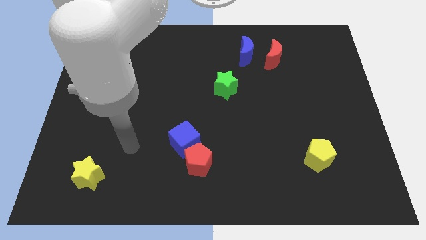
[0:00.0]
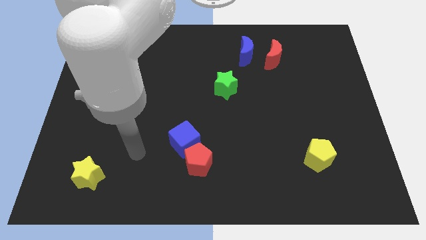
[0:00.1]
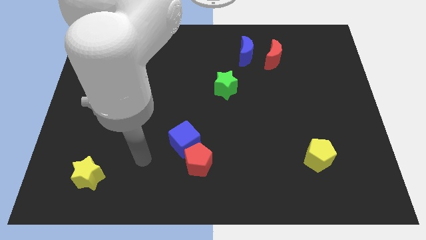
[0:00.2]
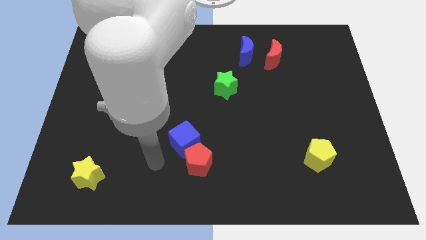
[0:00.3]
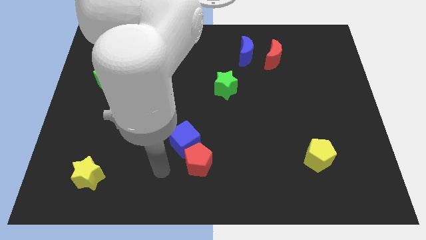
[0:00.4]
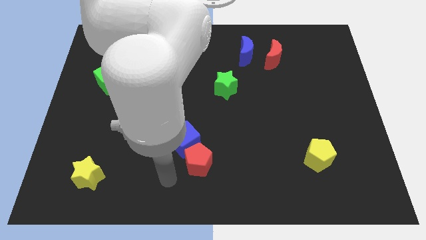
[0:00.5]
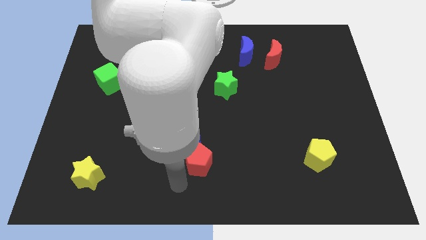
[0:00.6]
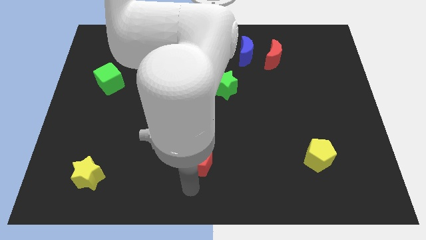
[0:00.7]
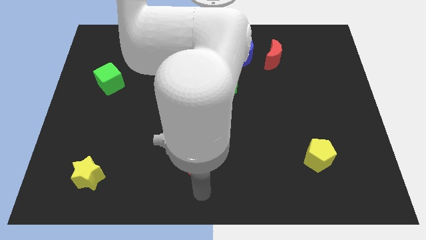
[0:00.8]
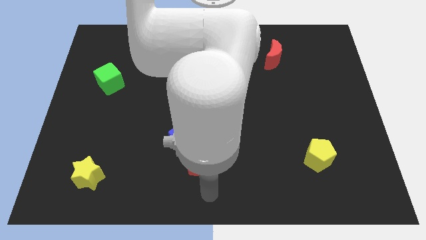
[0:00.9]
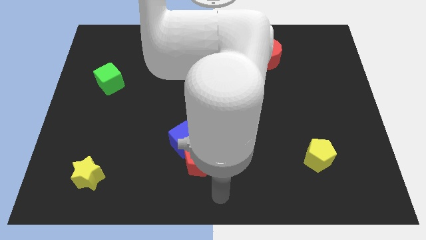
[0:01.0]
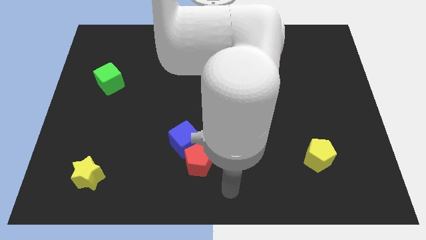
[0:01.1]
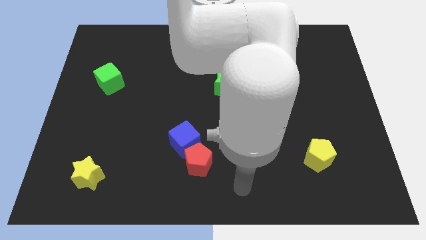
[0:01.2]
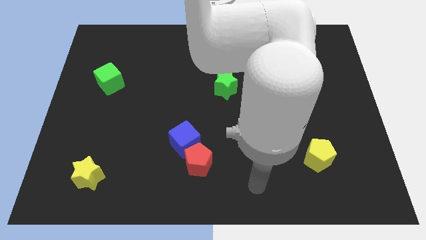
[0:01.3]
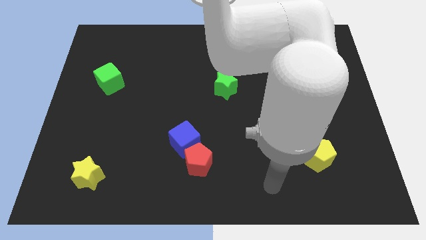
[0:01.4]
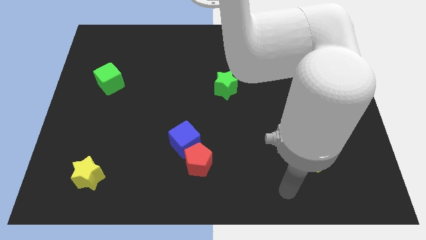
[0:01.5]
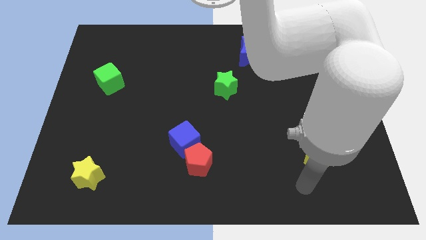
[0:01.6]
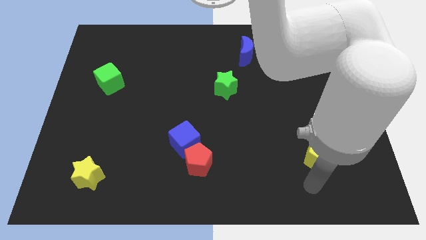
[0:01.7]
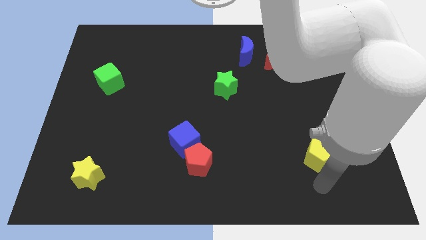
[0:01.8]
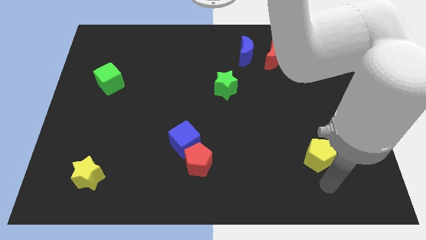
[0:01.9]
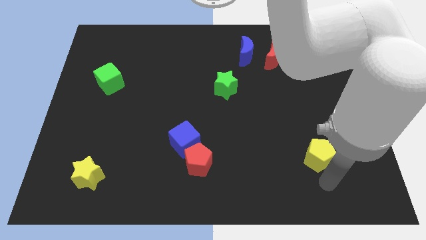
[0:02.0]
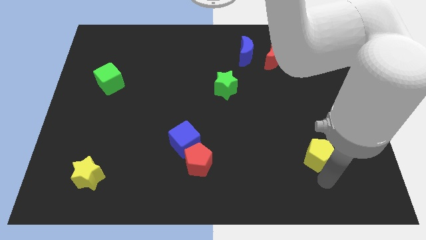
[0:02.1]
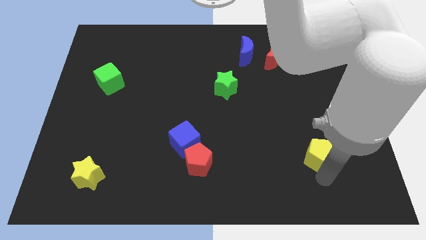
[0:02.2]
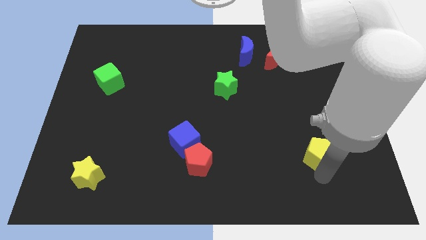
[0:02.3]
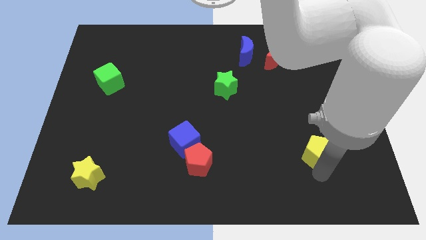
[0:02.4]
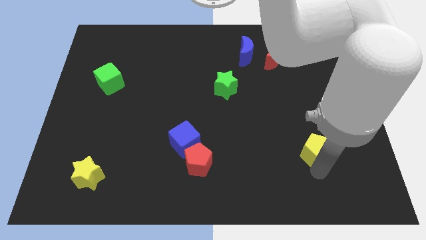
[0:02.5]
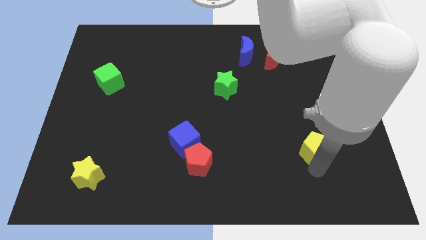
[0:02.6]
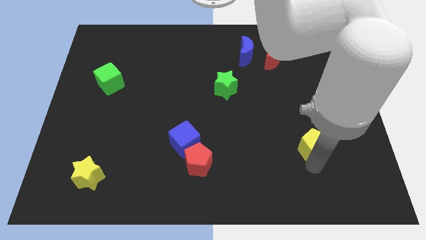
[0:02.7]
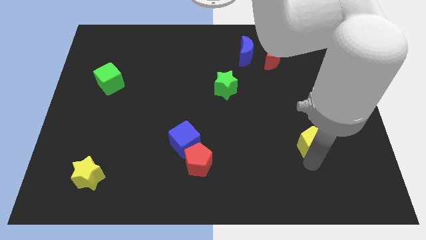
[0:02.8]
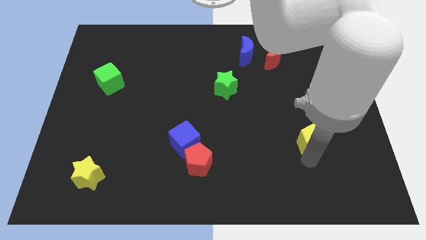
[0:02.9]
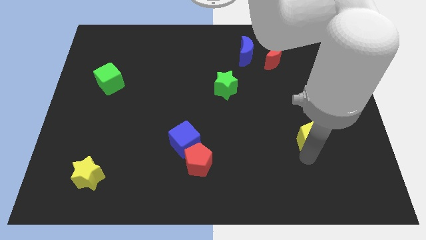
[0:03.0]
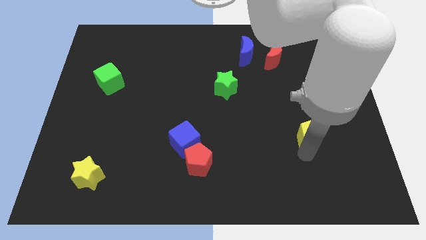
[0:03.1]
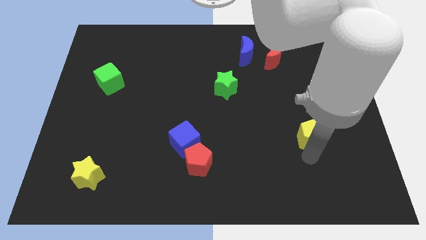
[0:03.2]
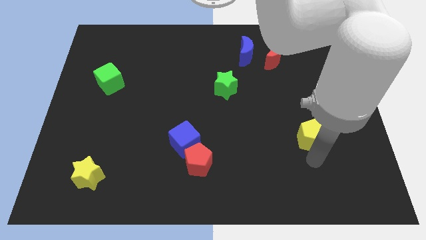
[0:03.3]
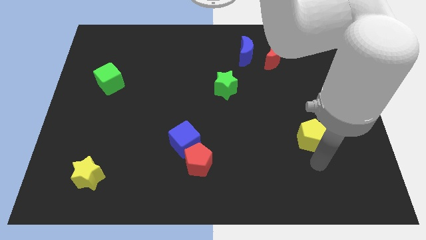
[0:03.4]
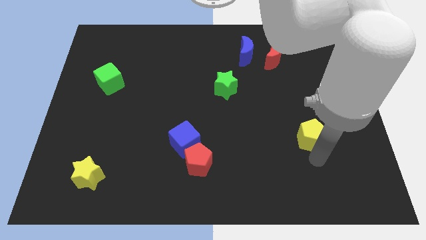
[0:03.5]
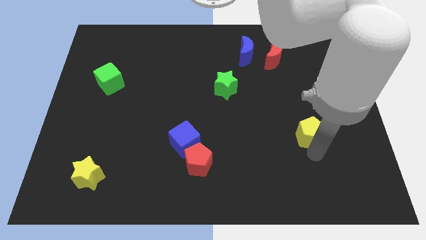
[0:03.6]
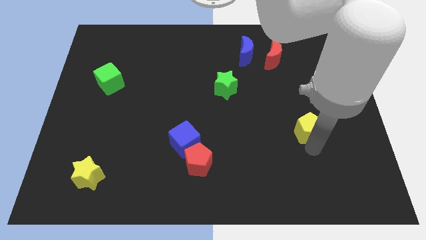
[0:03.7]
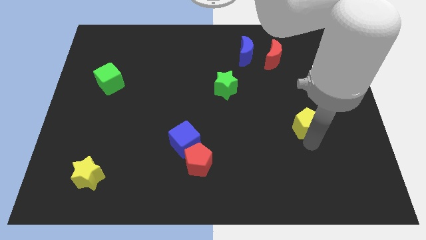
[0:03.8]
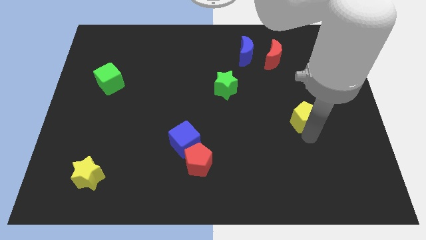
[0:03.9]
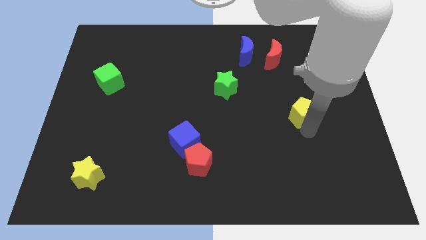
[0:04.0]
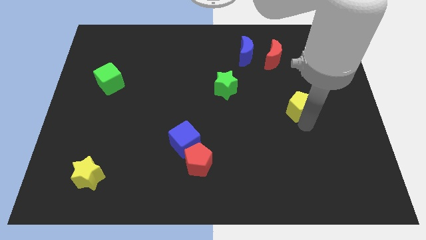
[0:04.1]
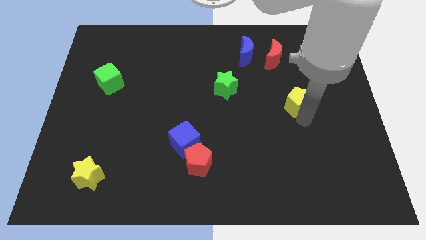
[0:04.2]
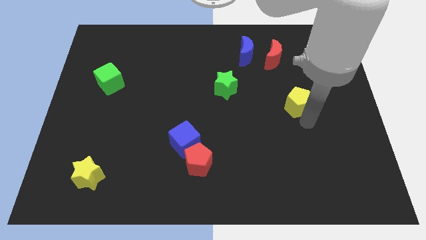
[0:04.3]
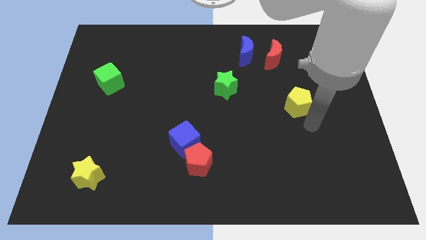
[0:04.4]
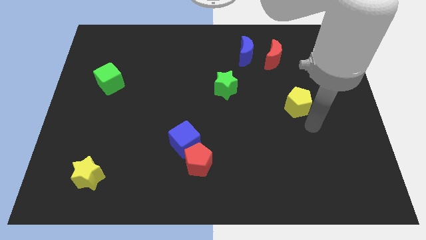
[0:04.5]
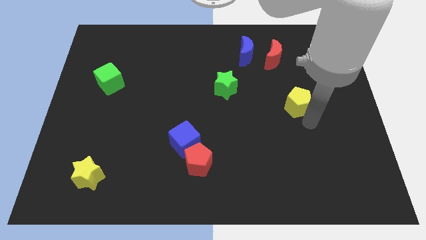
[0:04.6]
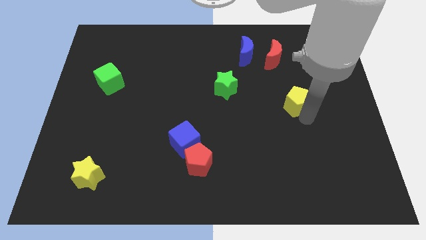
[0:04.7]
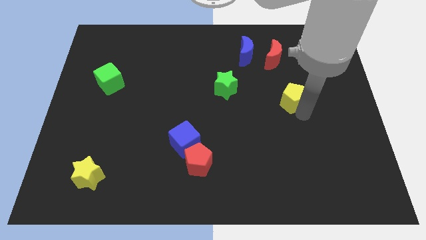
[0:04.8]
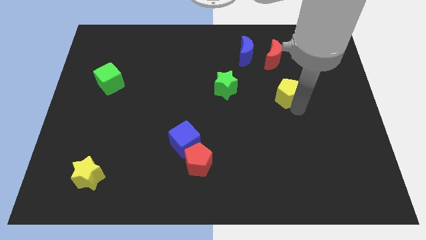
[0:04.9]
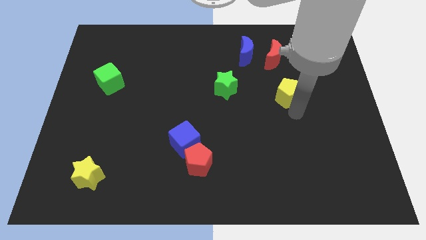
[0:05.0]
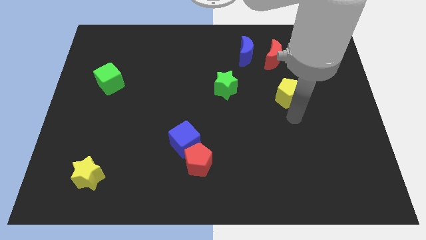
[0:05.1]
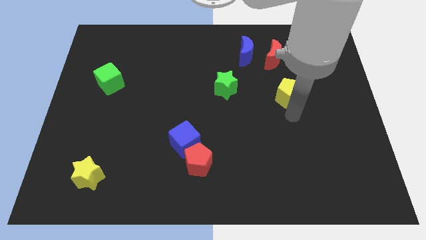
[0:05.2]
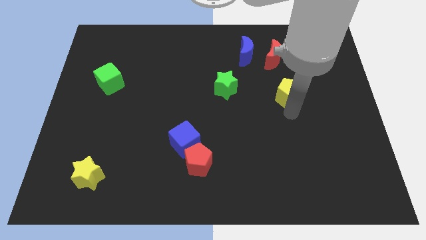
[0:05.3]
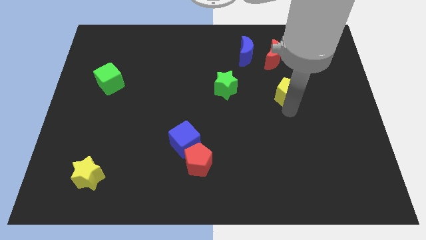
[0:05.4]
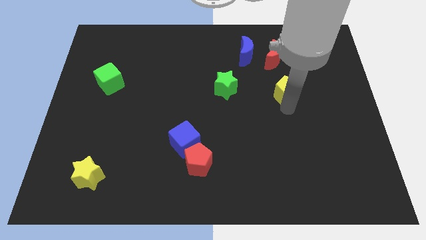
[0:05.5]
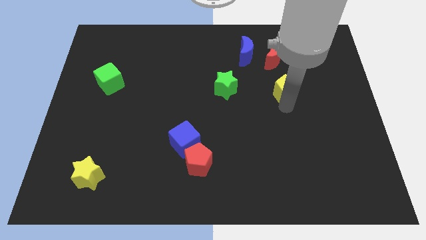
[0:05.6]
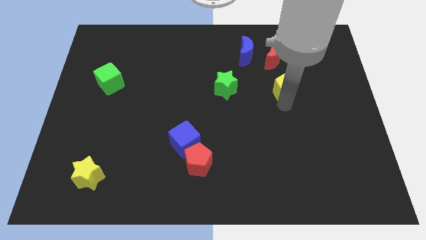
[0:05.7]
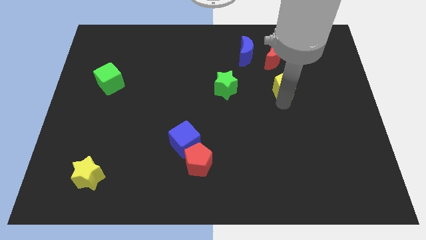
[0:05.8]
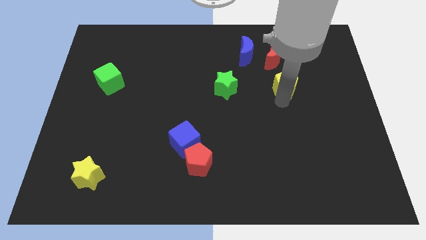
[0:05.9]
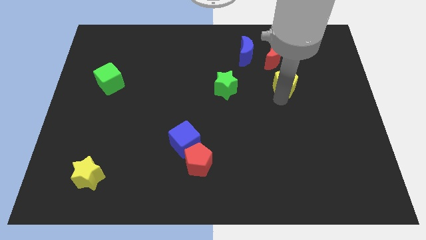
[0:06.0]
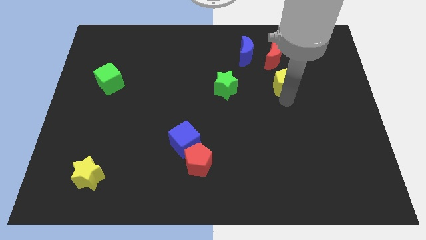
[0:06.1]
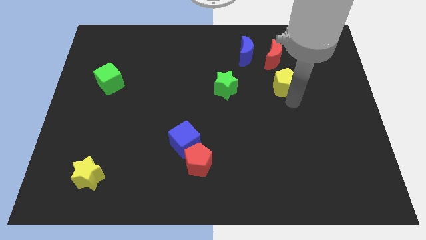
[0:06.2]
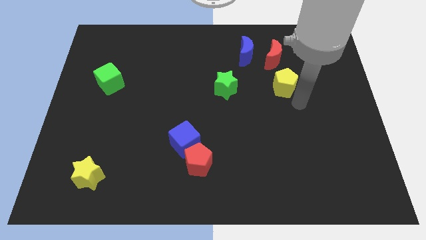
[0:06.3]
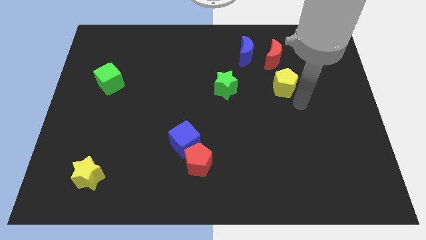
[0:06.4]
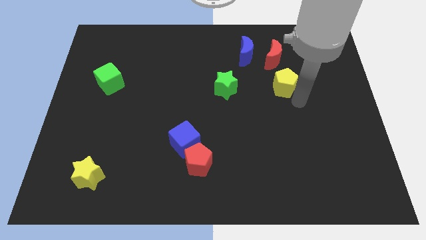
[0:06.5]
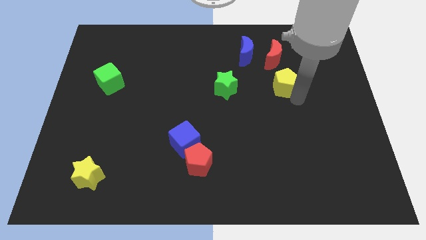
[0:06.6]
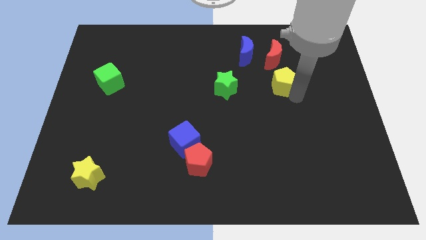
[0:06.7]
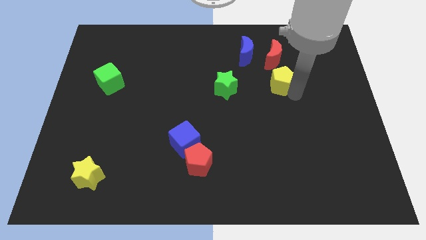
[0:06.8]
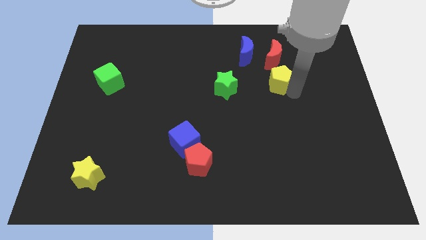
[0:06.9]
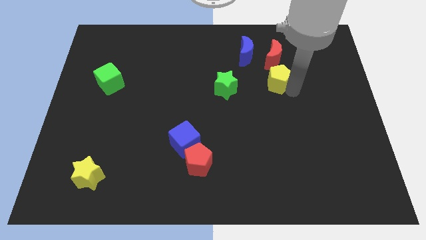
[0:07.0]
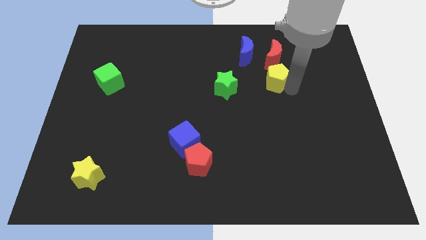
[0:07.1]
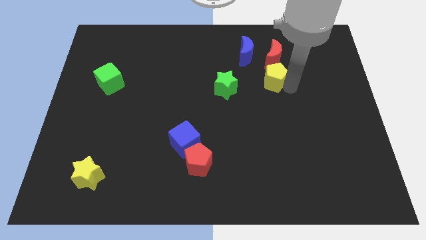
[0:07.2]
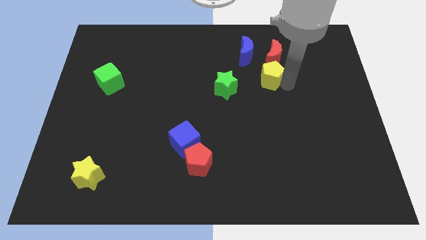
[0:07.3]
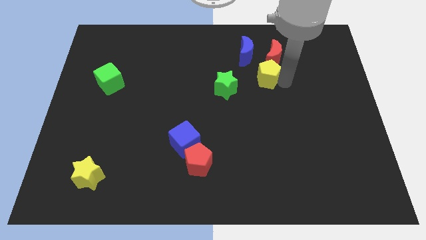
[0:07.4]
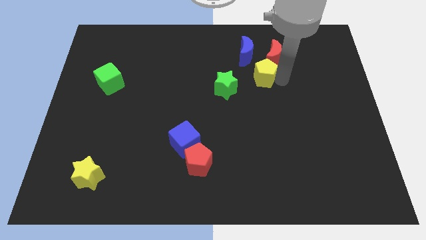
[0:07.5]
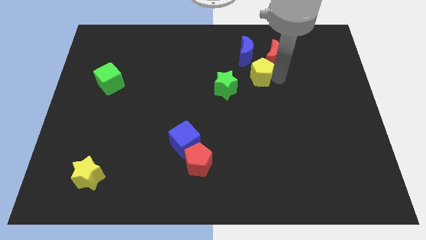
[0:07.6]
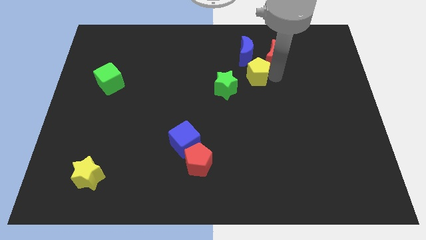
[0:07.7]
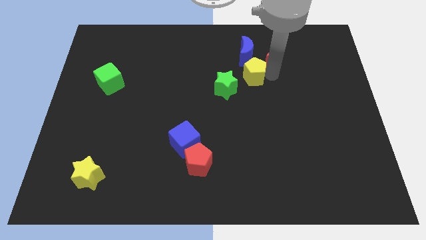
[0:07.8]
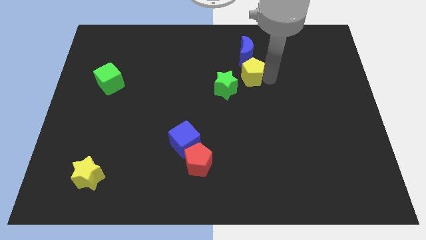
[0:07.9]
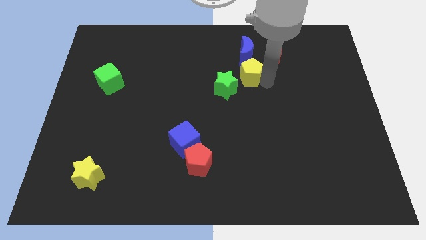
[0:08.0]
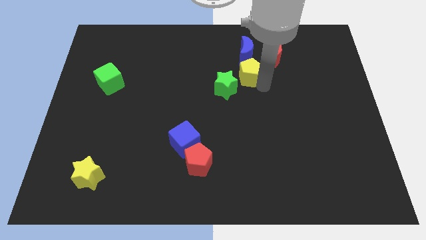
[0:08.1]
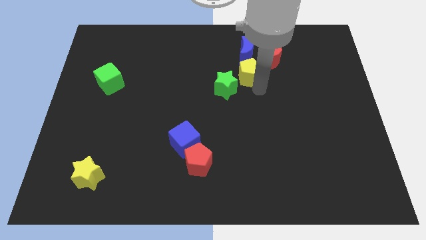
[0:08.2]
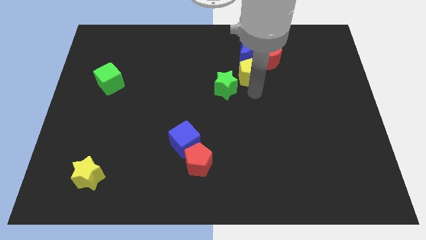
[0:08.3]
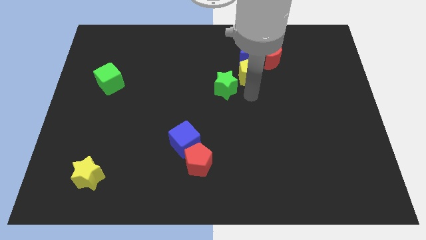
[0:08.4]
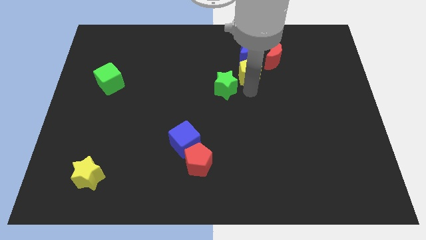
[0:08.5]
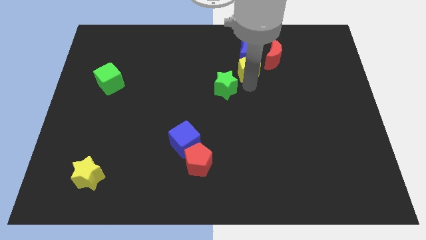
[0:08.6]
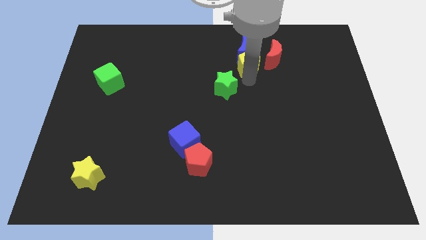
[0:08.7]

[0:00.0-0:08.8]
put the yellow pentagon to the blue moon
